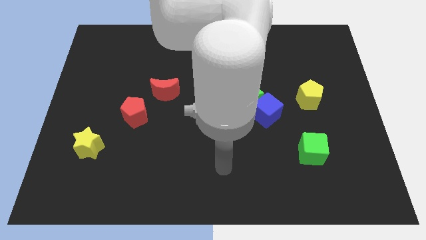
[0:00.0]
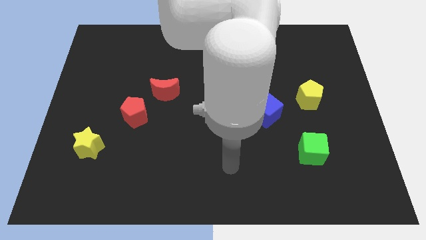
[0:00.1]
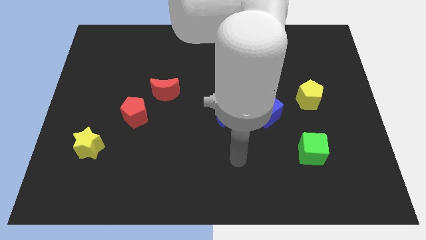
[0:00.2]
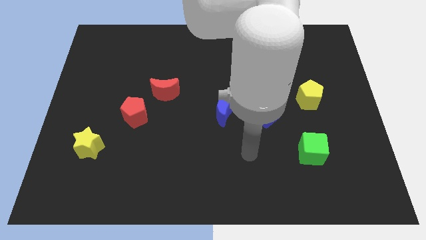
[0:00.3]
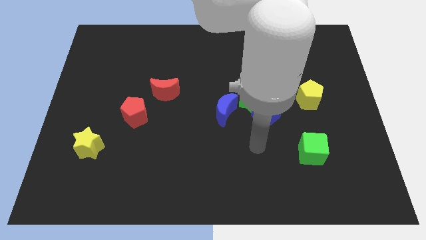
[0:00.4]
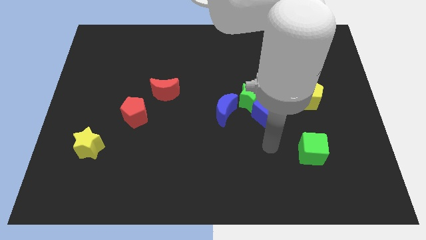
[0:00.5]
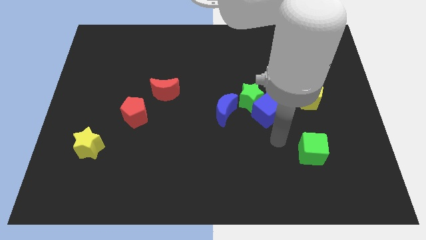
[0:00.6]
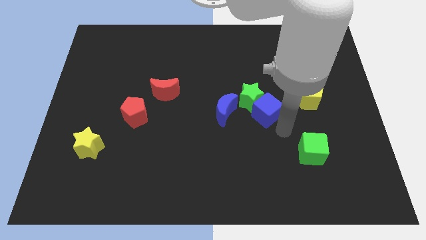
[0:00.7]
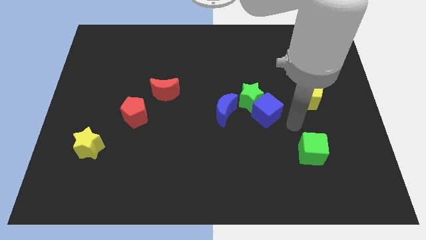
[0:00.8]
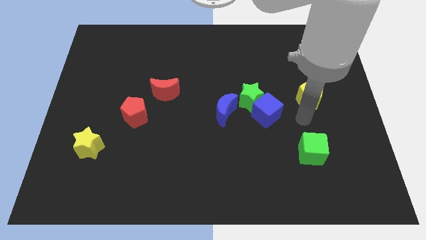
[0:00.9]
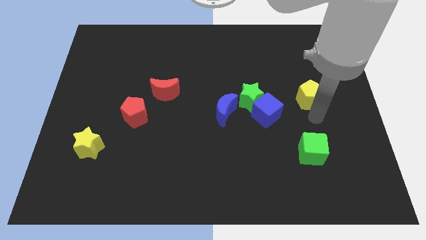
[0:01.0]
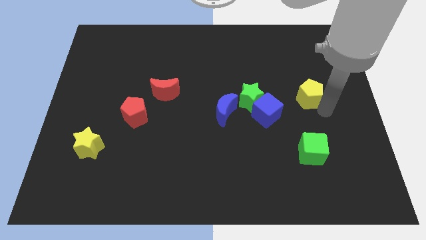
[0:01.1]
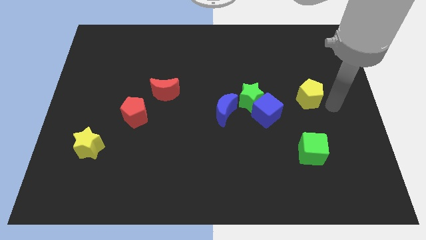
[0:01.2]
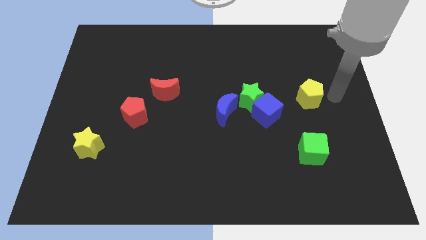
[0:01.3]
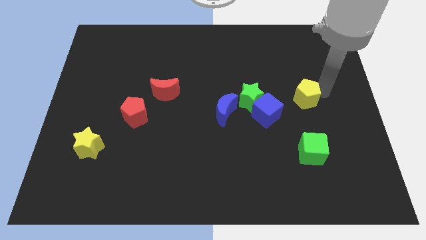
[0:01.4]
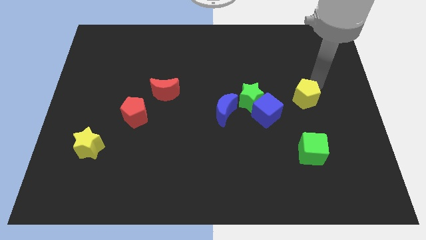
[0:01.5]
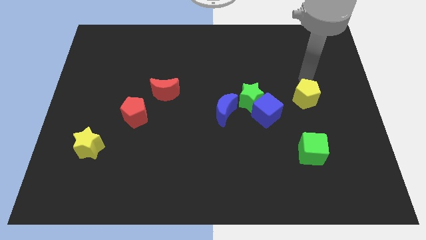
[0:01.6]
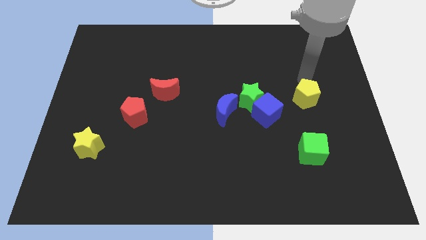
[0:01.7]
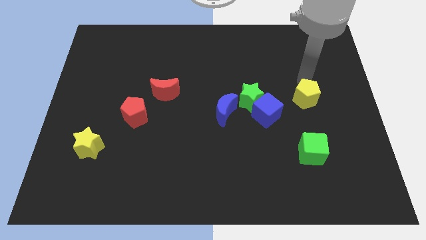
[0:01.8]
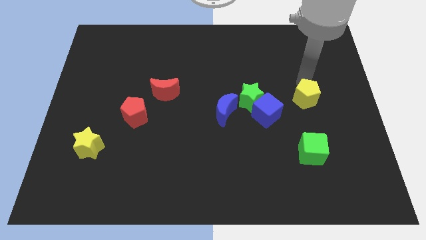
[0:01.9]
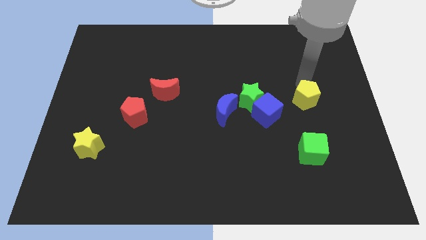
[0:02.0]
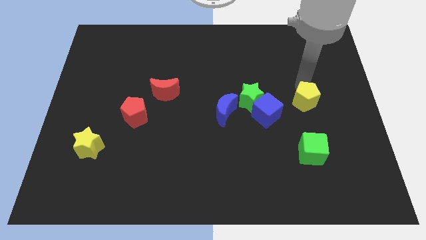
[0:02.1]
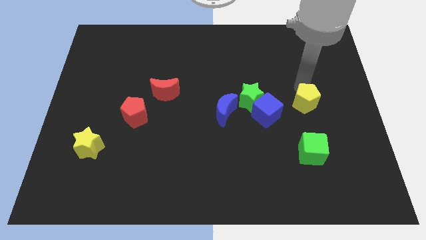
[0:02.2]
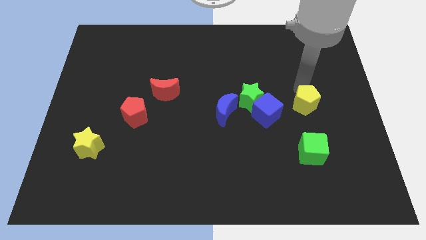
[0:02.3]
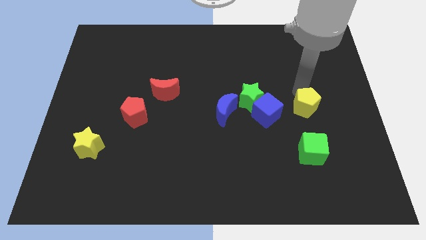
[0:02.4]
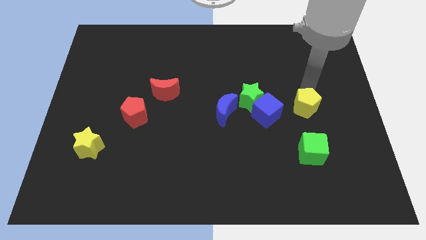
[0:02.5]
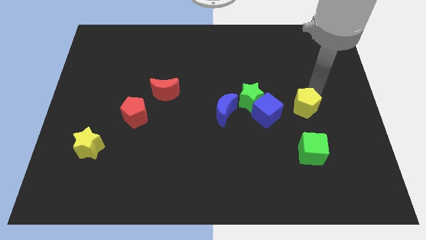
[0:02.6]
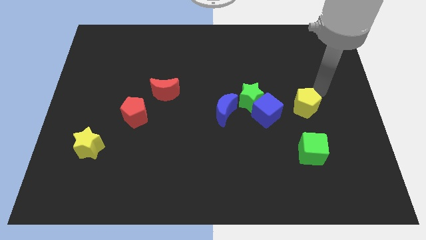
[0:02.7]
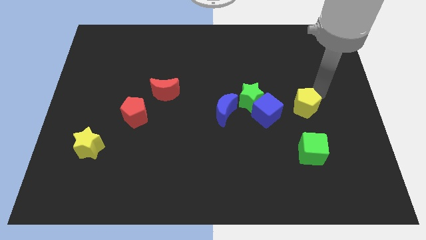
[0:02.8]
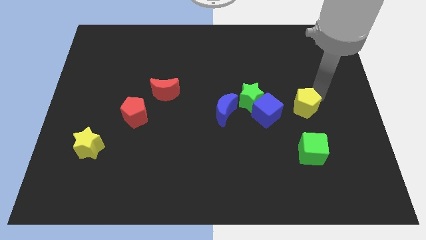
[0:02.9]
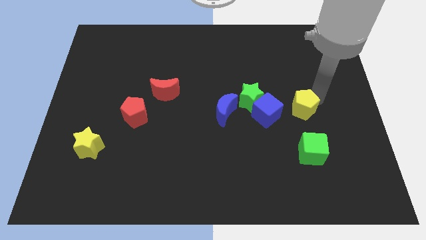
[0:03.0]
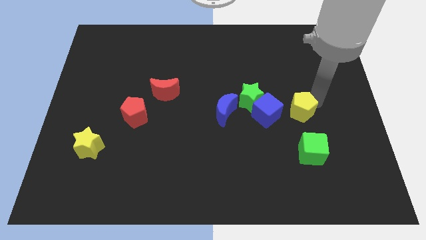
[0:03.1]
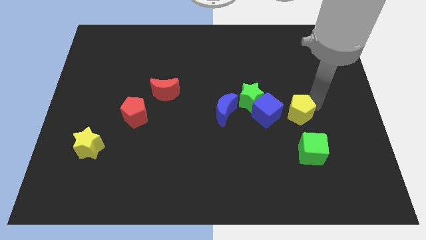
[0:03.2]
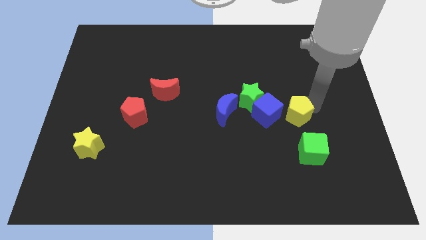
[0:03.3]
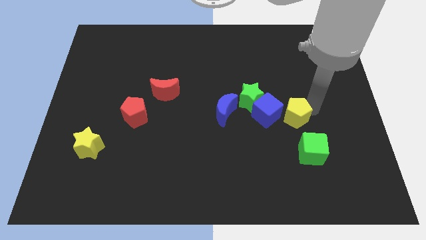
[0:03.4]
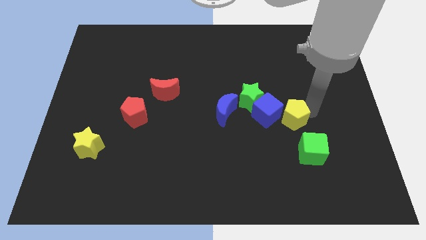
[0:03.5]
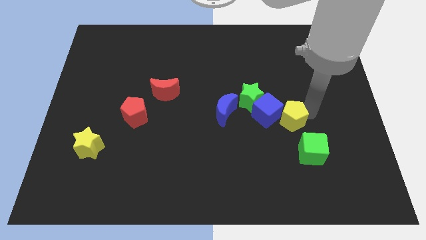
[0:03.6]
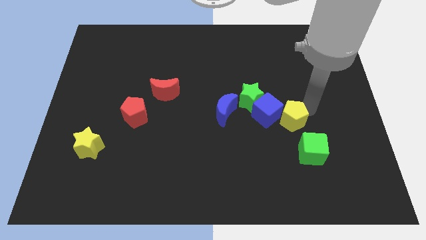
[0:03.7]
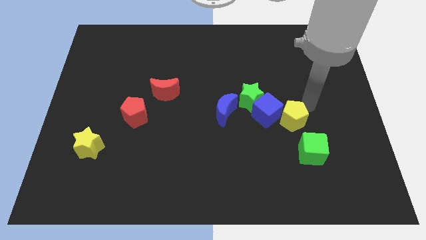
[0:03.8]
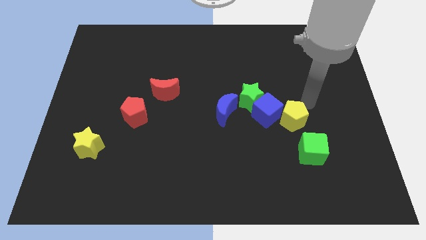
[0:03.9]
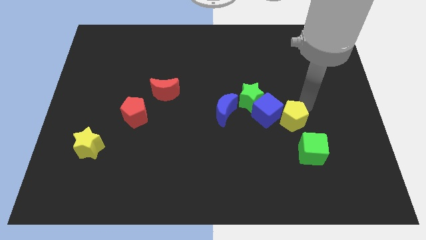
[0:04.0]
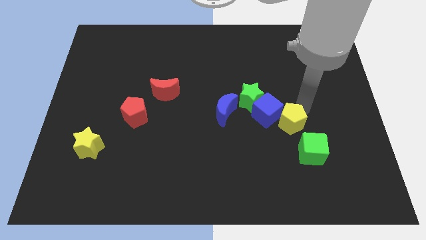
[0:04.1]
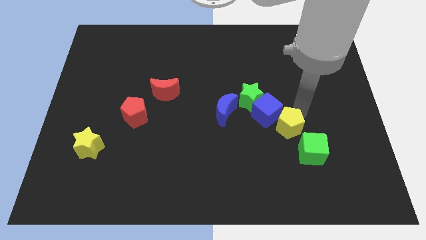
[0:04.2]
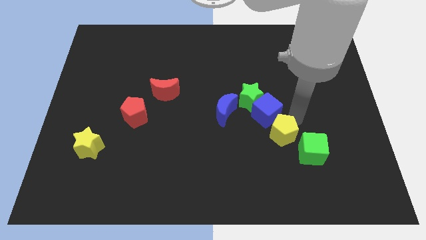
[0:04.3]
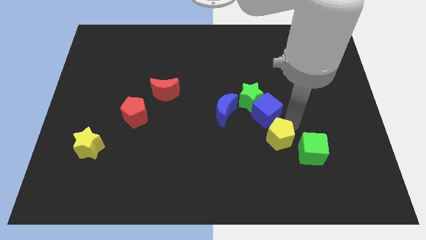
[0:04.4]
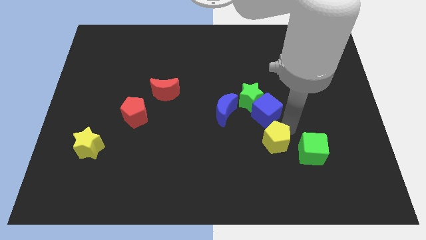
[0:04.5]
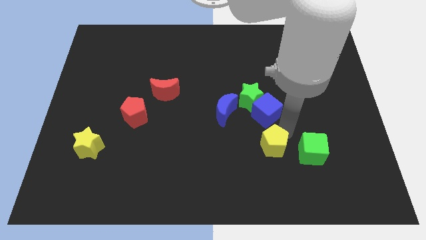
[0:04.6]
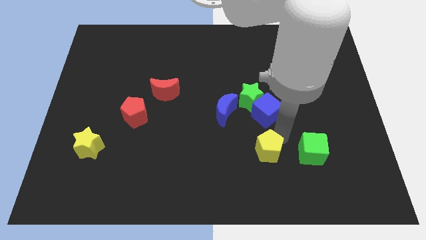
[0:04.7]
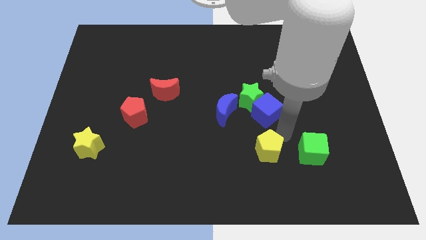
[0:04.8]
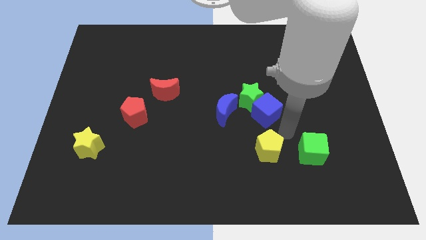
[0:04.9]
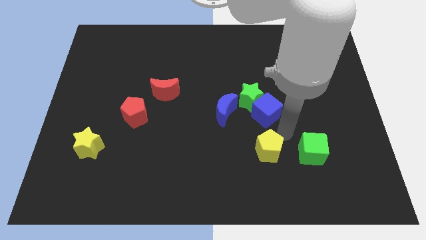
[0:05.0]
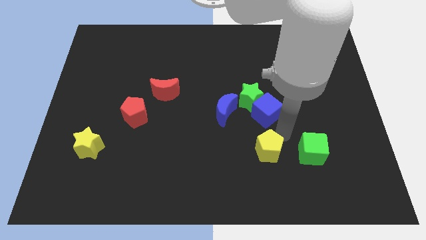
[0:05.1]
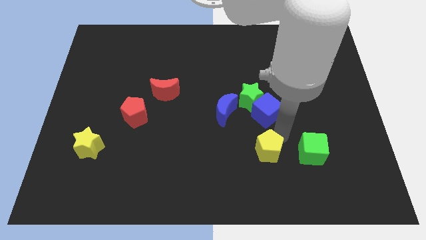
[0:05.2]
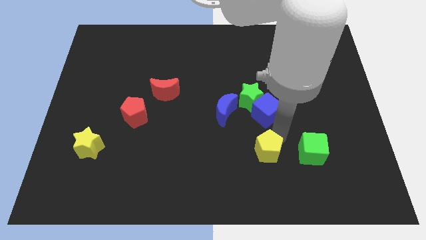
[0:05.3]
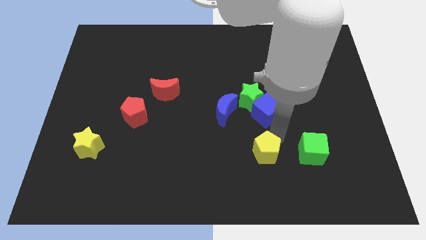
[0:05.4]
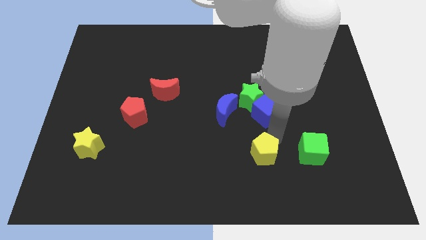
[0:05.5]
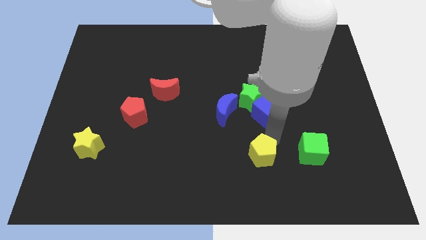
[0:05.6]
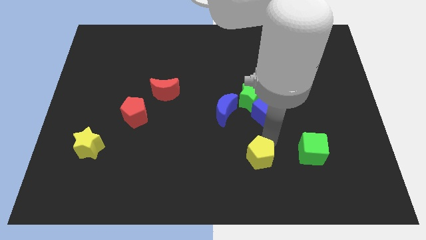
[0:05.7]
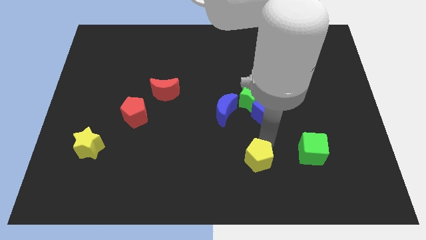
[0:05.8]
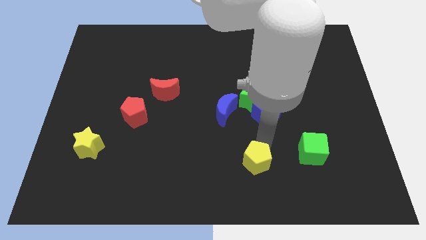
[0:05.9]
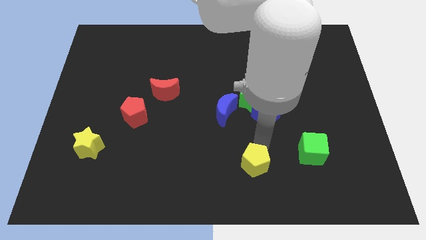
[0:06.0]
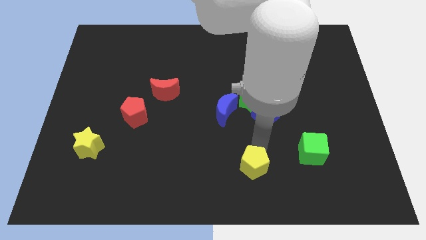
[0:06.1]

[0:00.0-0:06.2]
move the yellow pentagon to the bottom side
